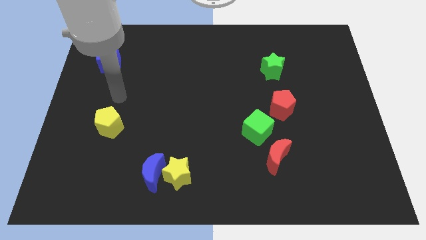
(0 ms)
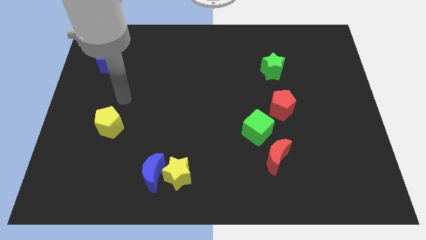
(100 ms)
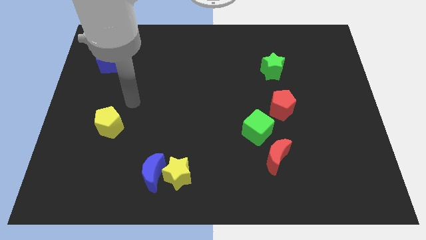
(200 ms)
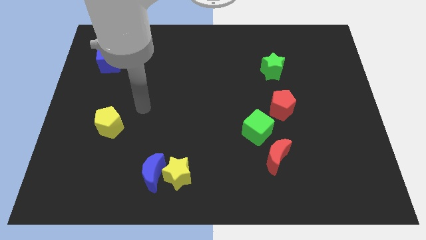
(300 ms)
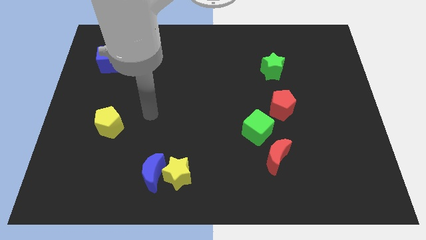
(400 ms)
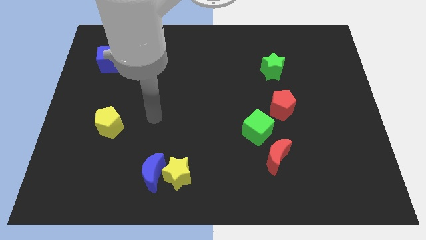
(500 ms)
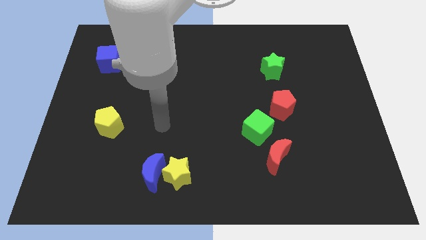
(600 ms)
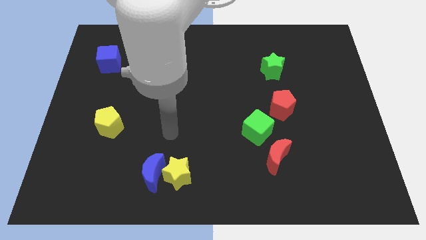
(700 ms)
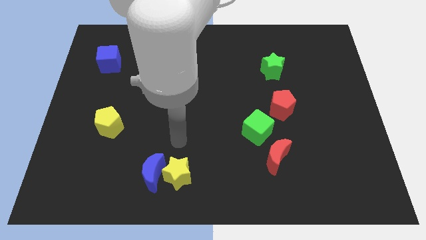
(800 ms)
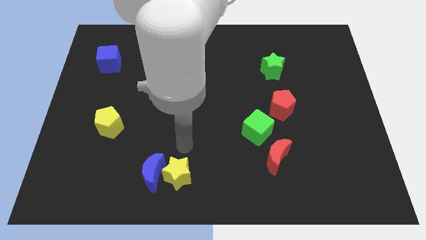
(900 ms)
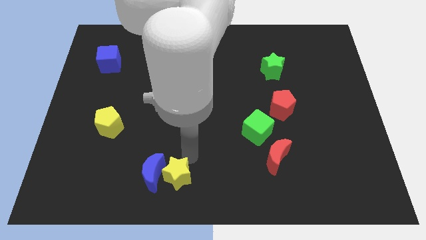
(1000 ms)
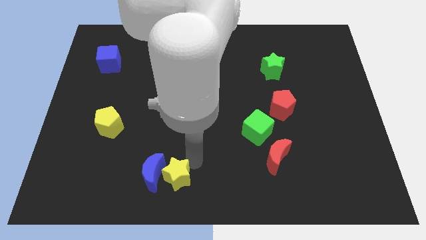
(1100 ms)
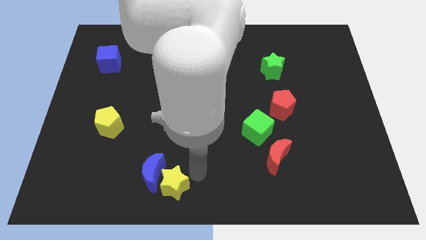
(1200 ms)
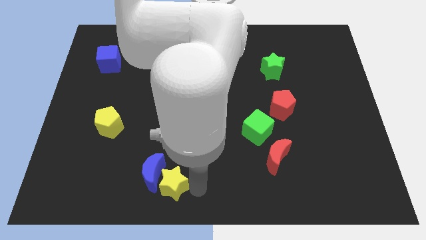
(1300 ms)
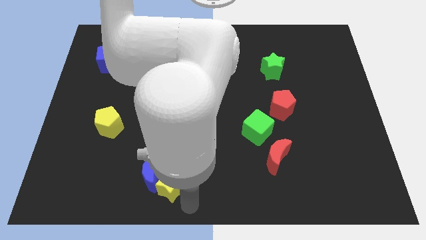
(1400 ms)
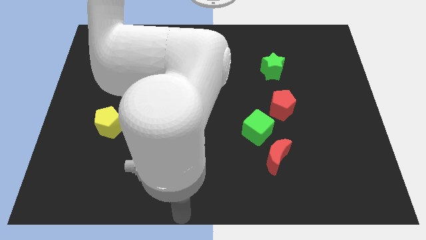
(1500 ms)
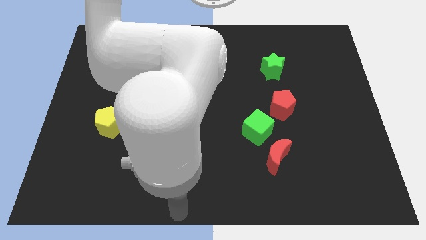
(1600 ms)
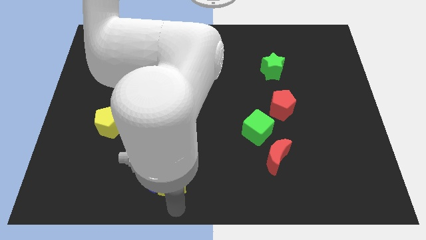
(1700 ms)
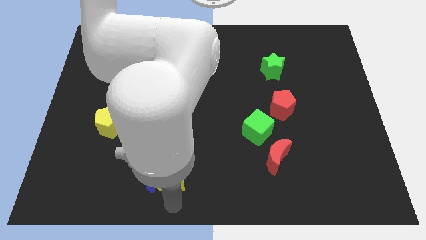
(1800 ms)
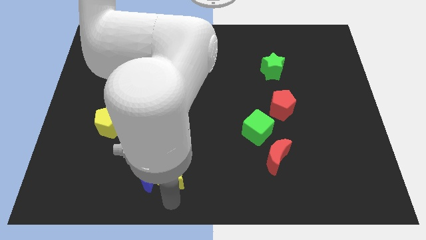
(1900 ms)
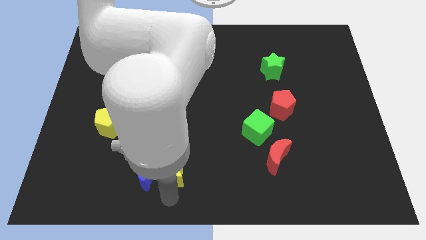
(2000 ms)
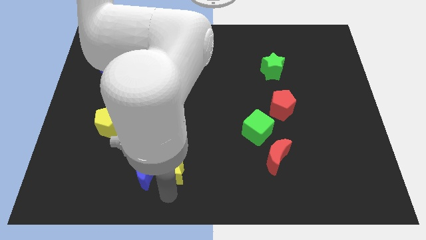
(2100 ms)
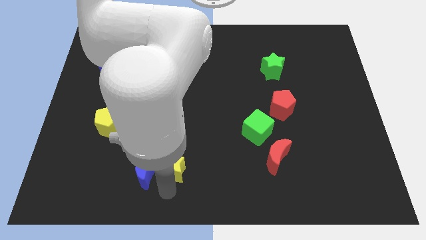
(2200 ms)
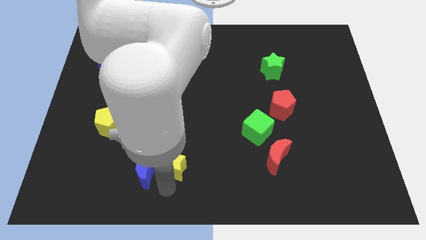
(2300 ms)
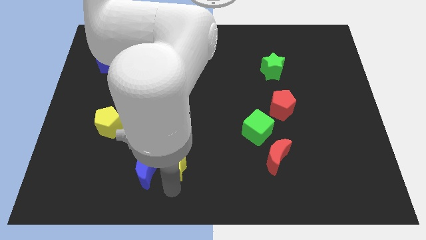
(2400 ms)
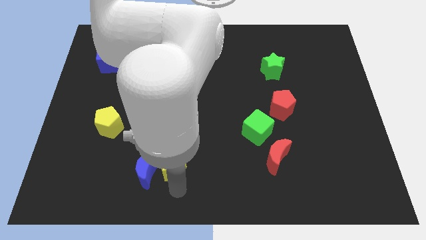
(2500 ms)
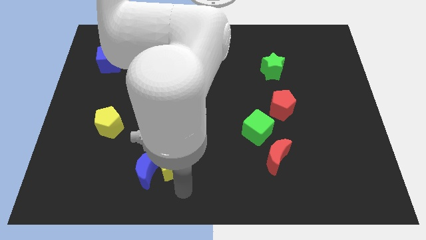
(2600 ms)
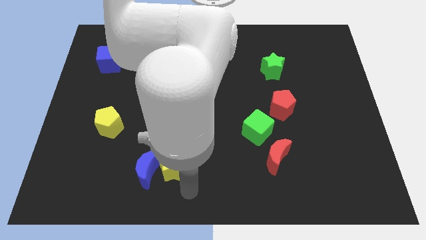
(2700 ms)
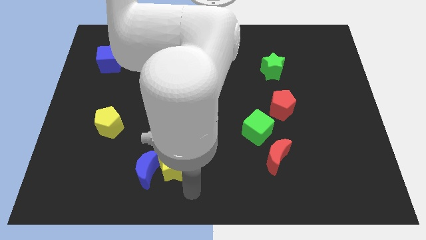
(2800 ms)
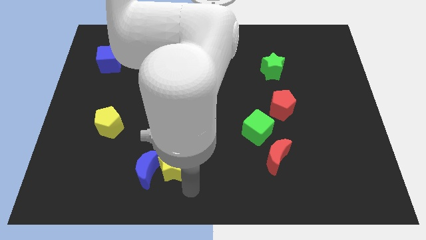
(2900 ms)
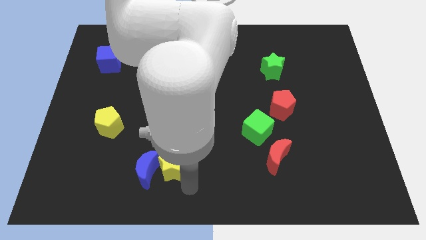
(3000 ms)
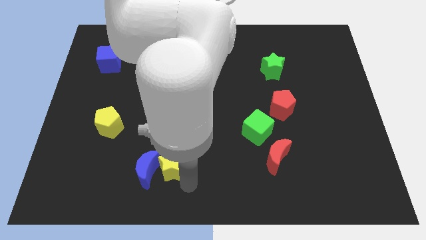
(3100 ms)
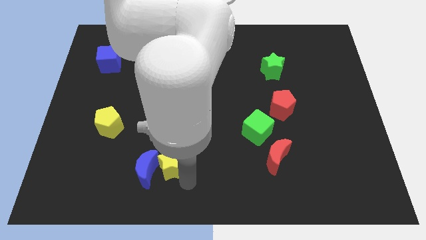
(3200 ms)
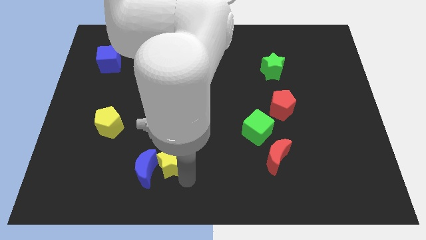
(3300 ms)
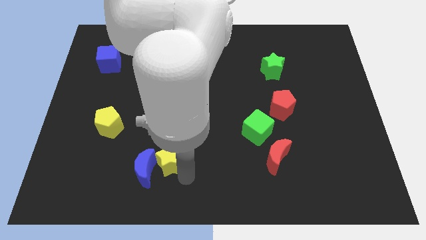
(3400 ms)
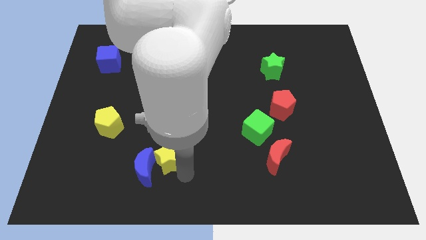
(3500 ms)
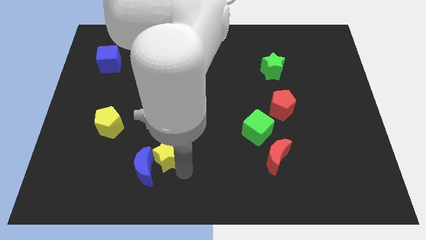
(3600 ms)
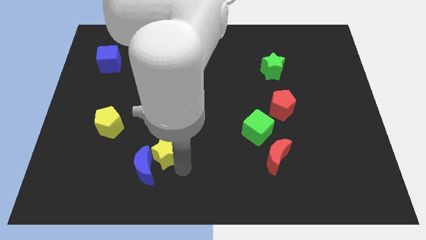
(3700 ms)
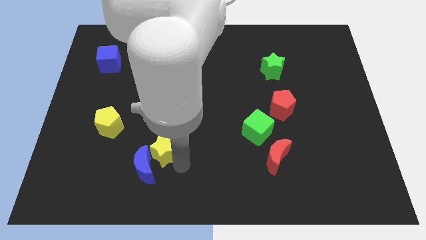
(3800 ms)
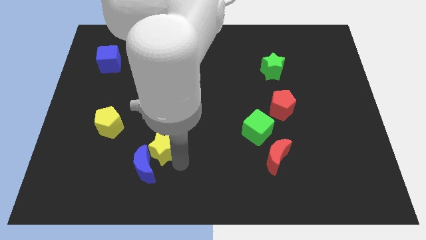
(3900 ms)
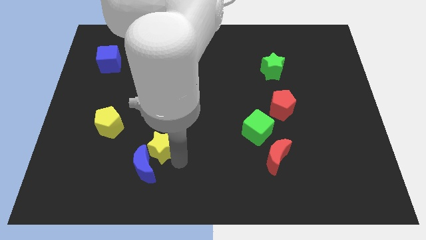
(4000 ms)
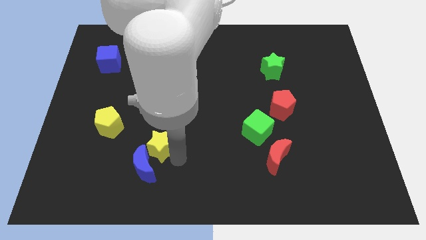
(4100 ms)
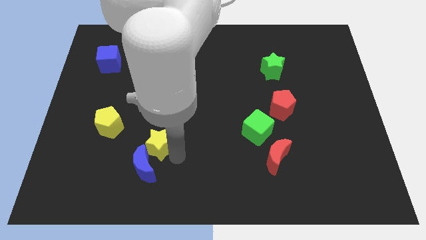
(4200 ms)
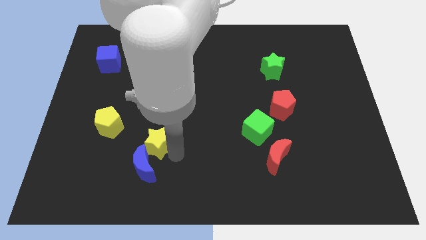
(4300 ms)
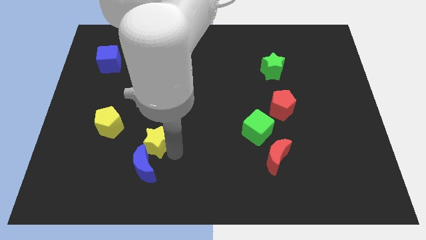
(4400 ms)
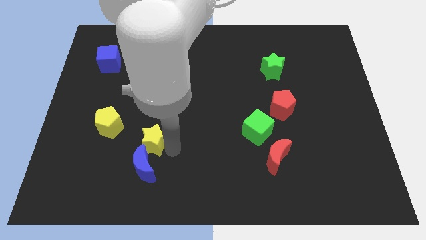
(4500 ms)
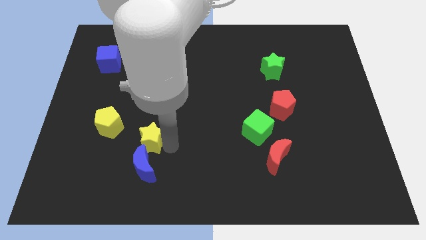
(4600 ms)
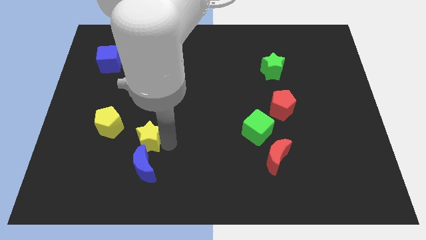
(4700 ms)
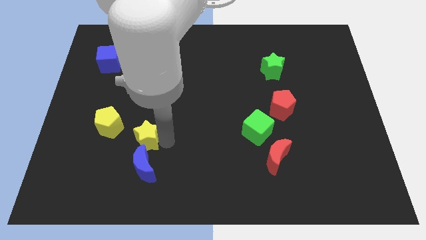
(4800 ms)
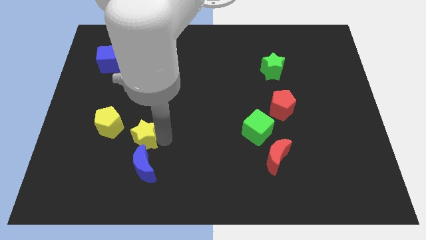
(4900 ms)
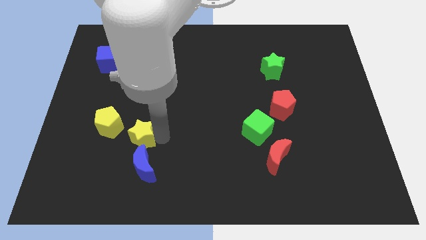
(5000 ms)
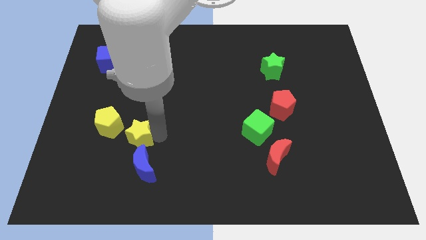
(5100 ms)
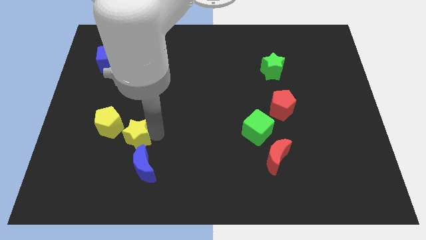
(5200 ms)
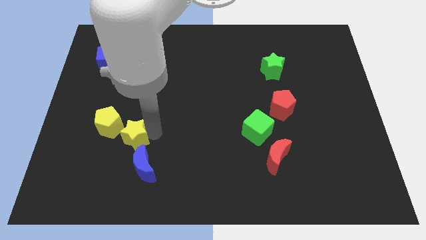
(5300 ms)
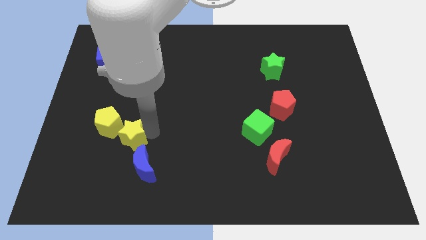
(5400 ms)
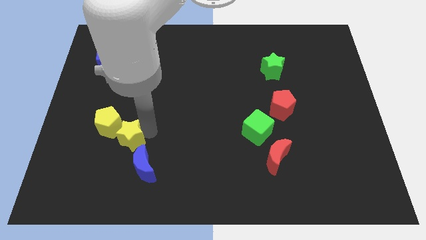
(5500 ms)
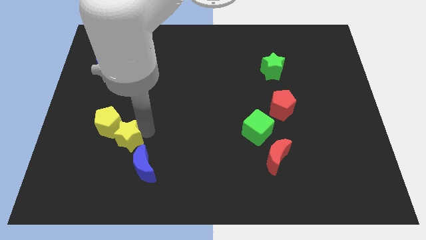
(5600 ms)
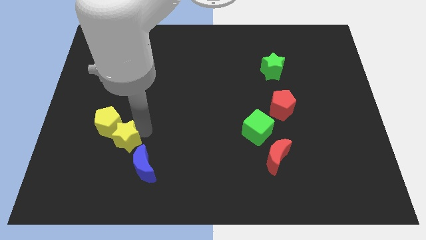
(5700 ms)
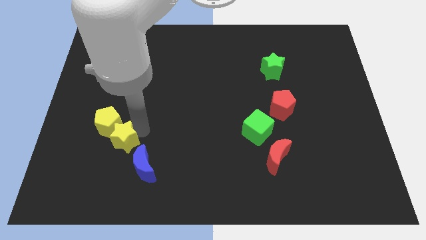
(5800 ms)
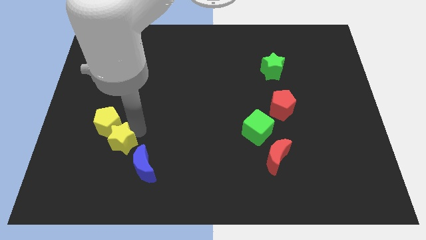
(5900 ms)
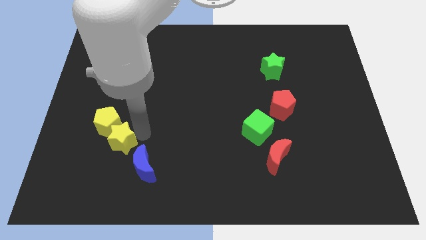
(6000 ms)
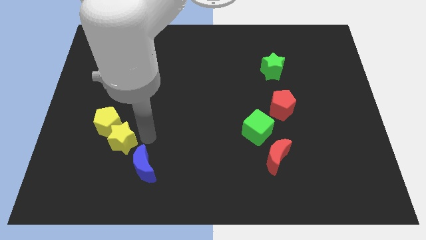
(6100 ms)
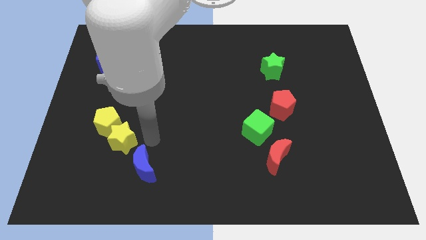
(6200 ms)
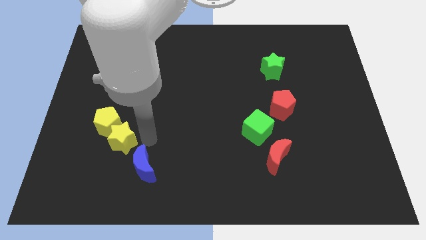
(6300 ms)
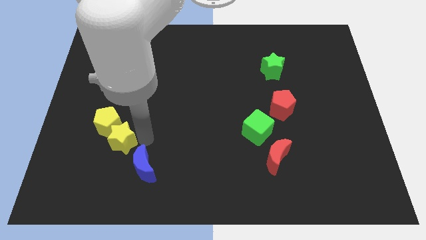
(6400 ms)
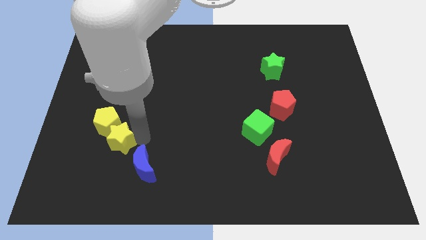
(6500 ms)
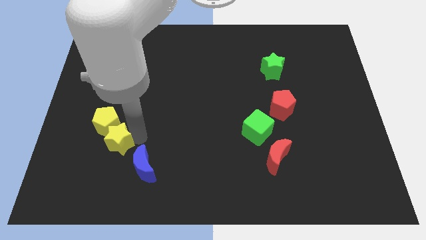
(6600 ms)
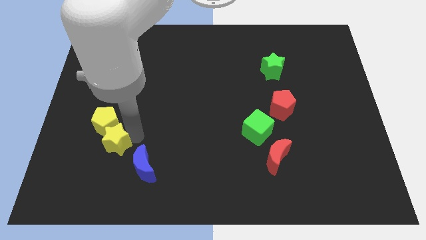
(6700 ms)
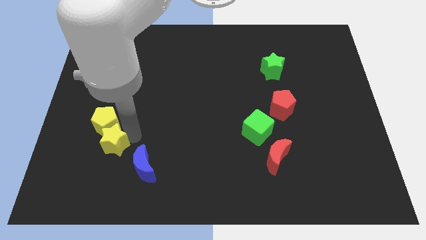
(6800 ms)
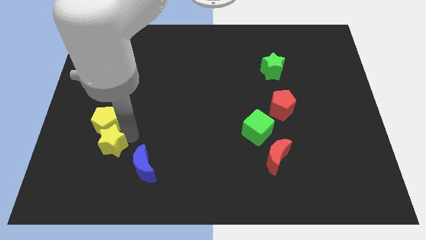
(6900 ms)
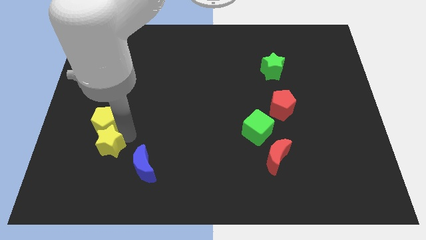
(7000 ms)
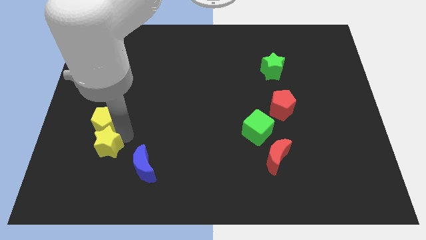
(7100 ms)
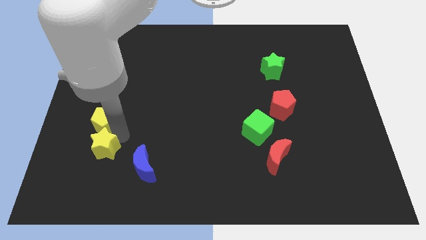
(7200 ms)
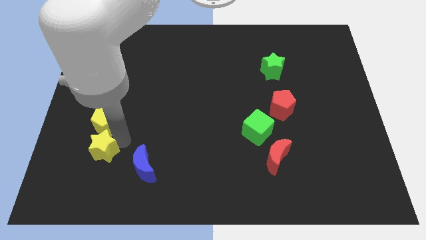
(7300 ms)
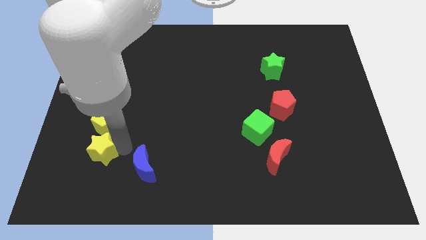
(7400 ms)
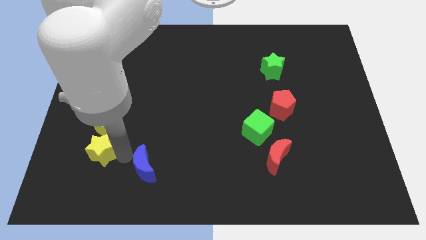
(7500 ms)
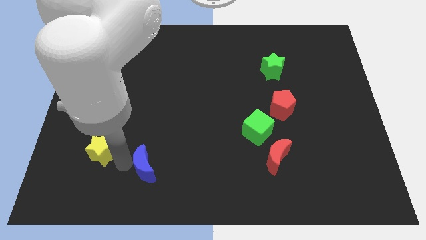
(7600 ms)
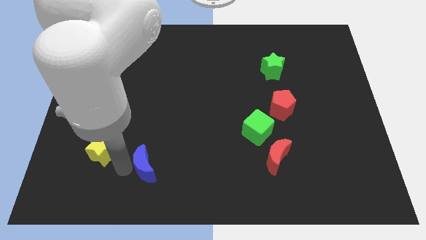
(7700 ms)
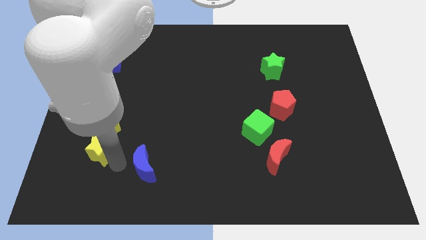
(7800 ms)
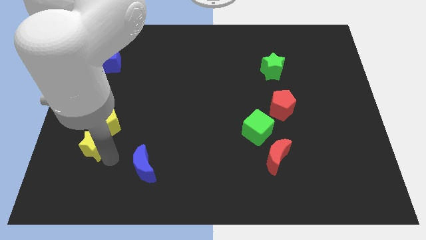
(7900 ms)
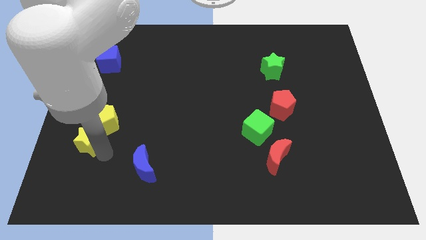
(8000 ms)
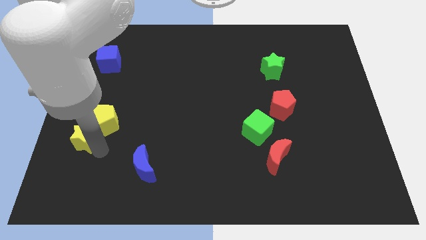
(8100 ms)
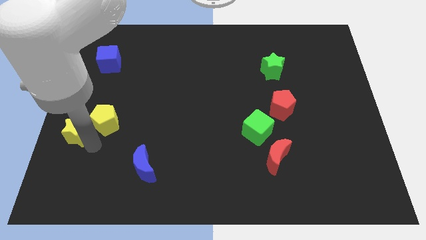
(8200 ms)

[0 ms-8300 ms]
slide the yellow star to the center left
